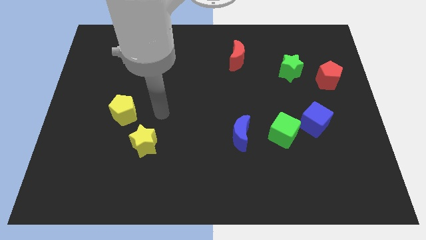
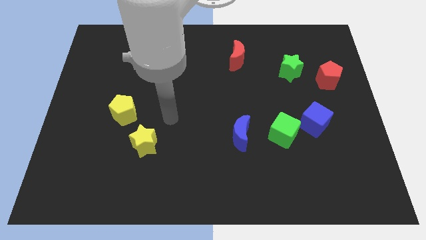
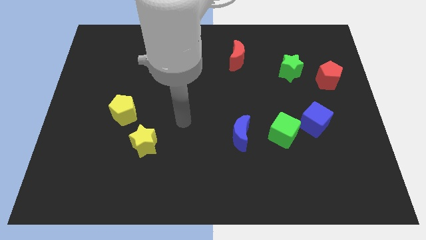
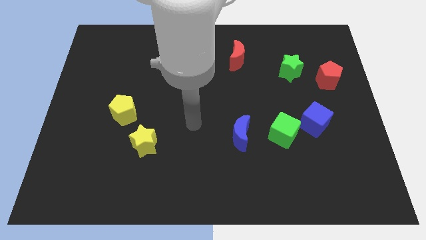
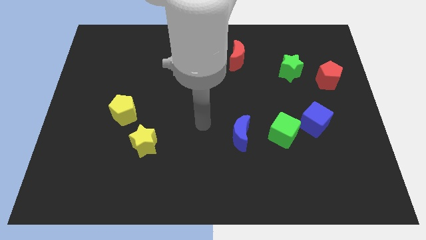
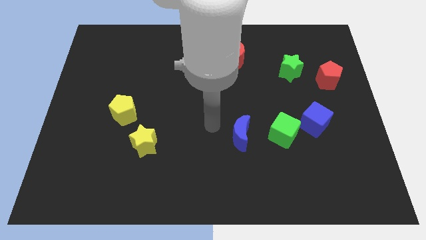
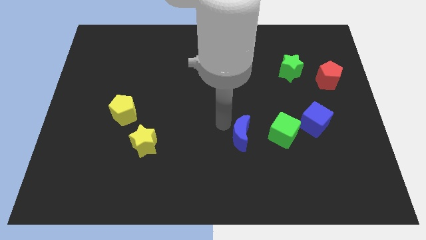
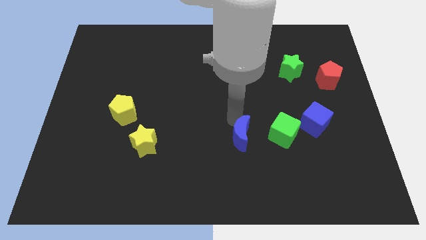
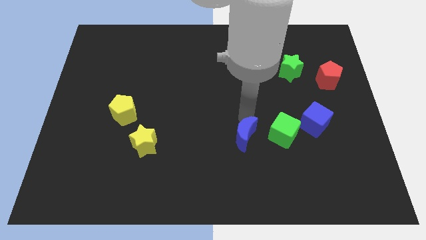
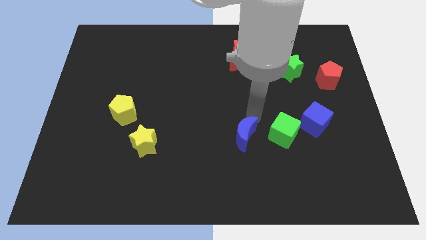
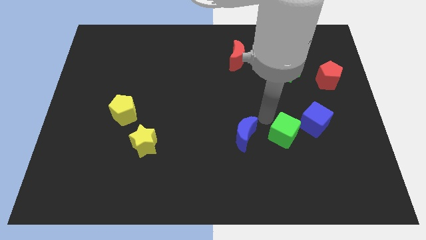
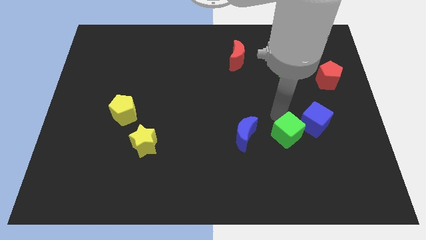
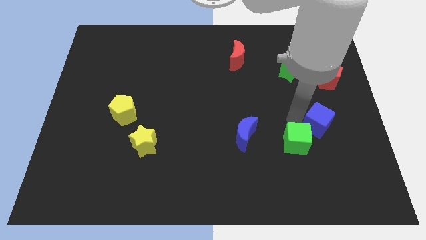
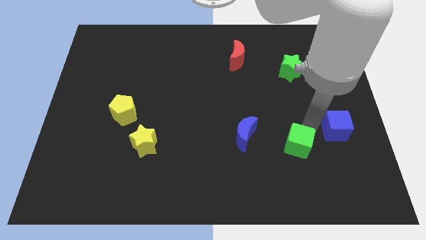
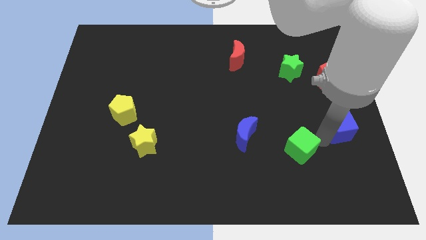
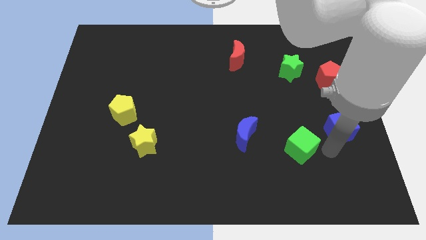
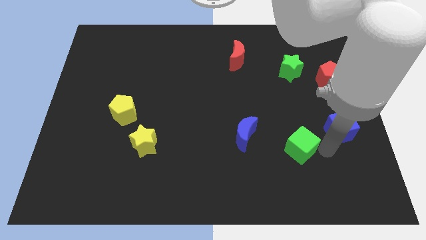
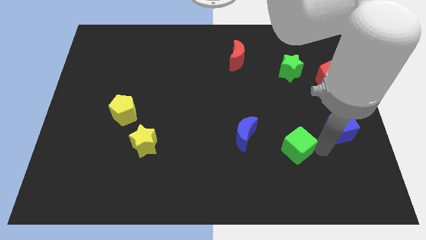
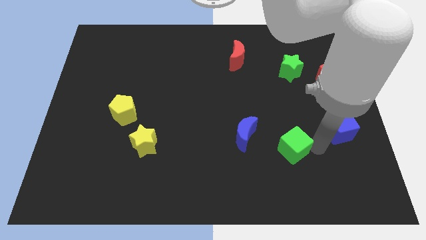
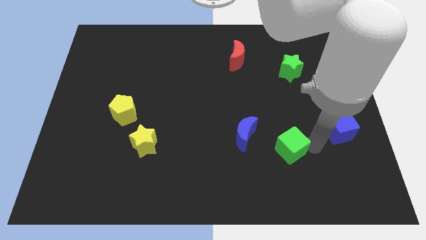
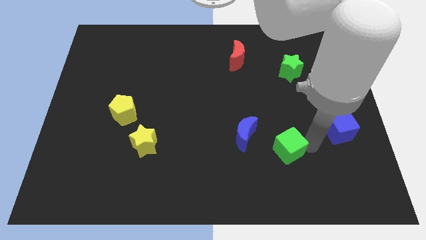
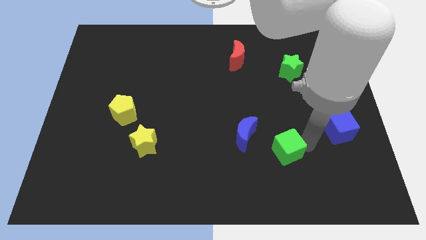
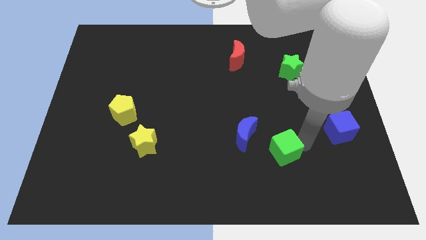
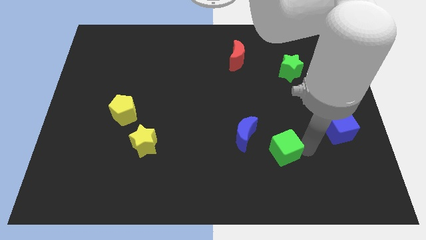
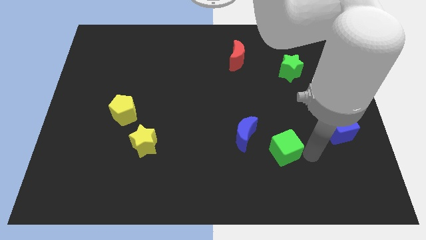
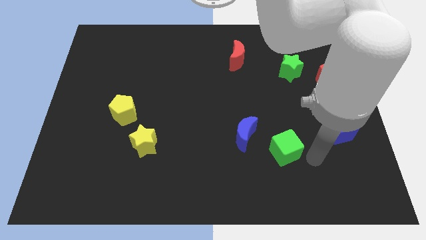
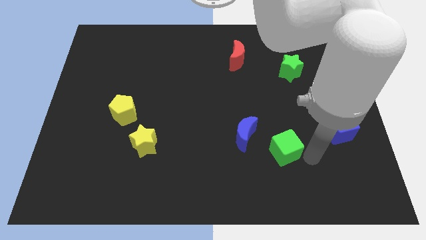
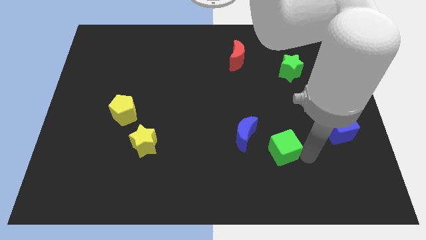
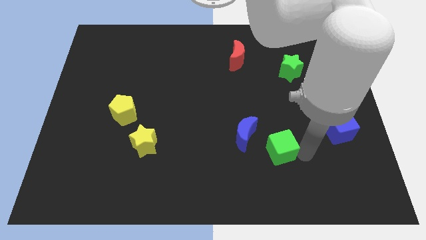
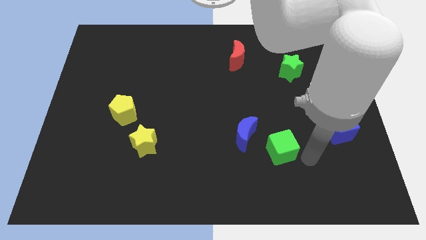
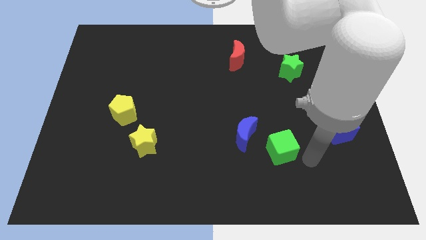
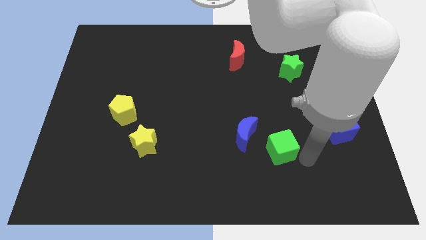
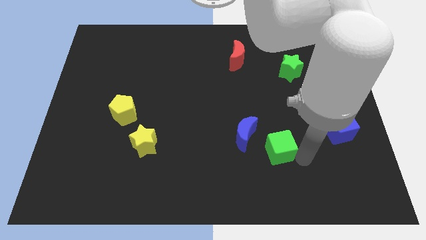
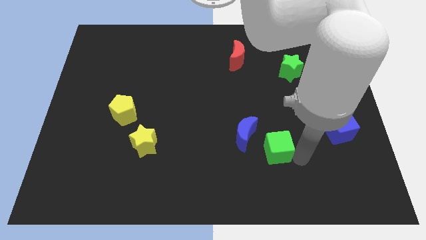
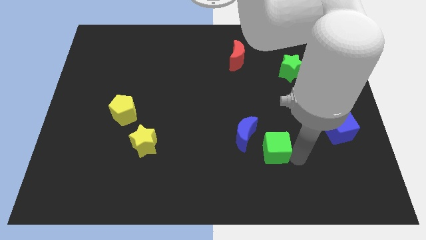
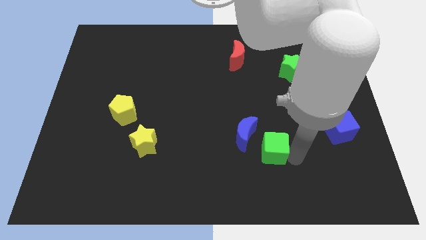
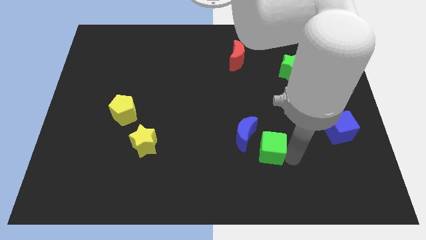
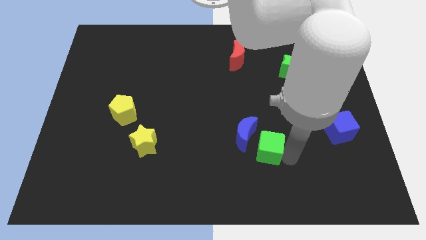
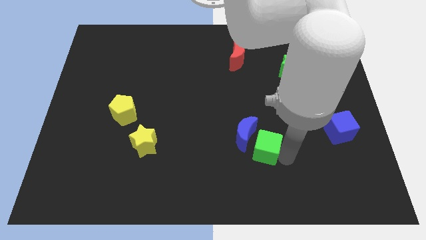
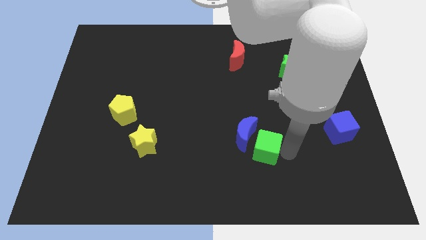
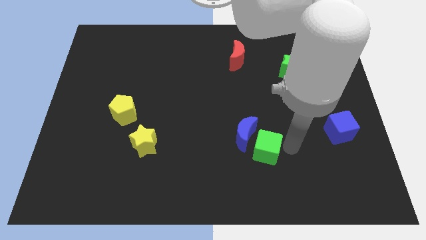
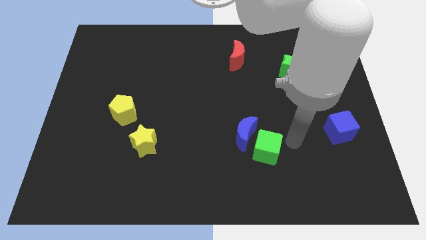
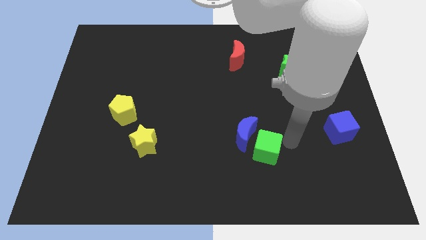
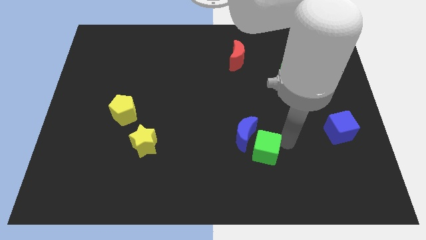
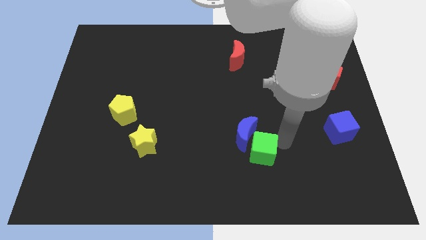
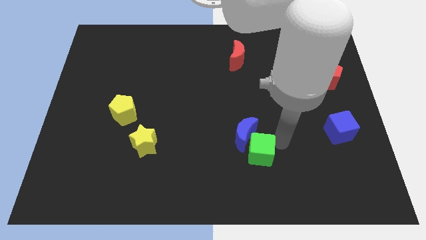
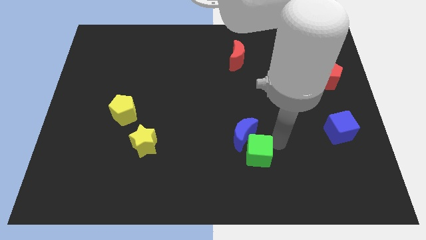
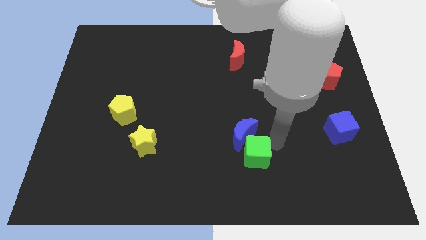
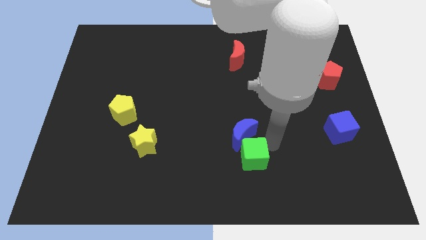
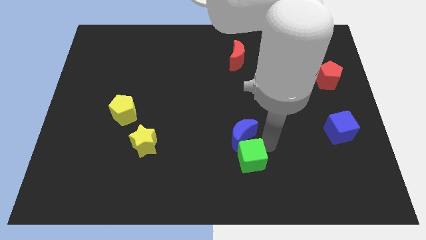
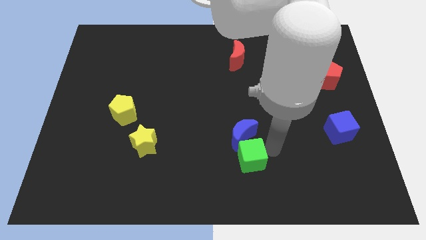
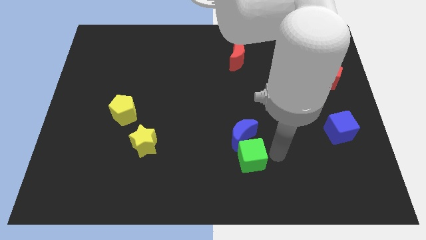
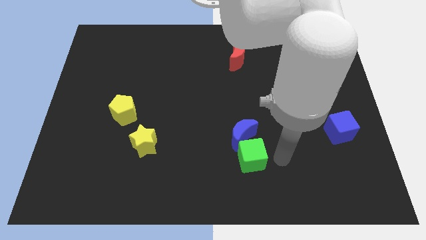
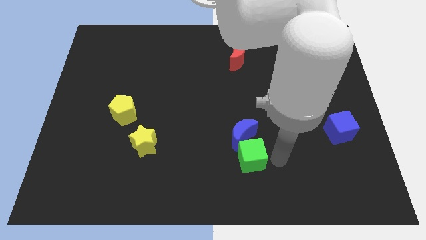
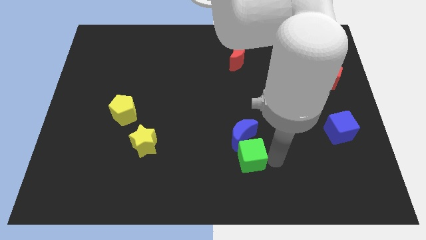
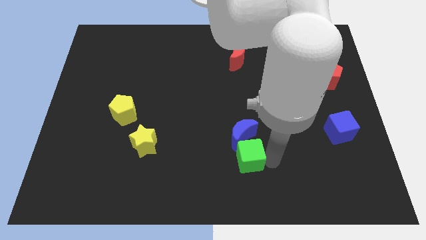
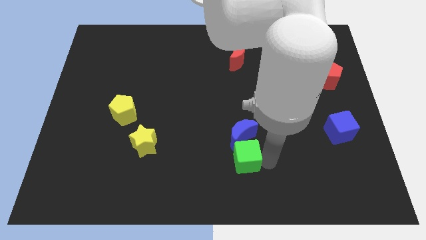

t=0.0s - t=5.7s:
put the green cube to the bottom left side of the blue moon

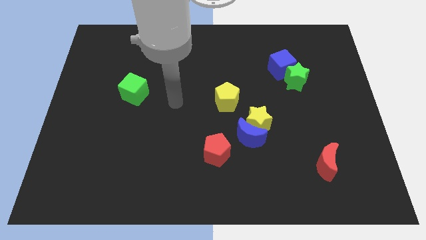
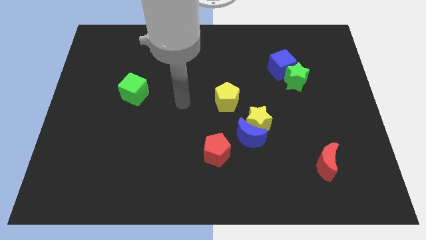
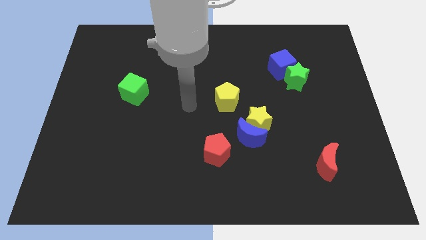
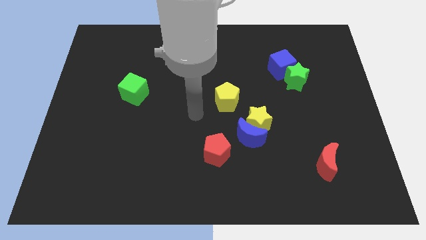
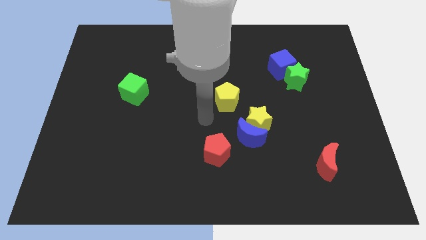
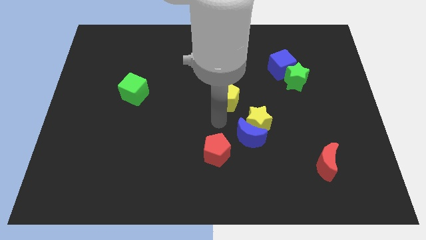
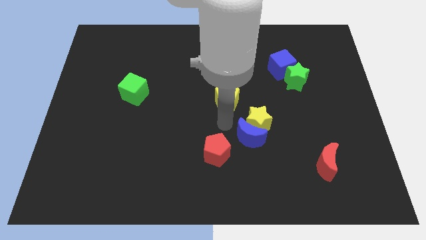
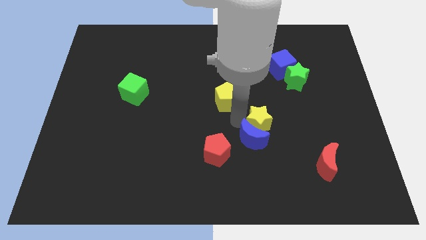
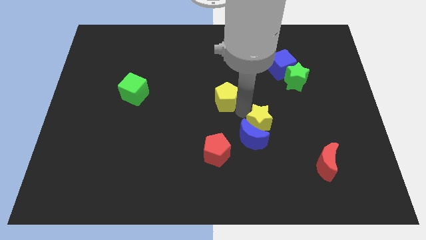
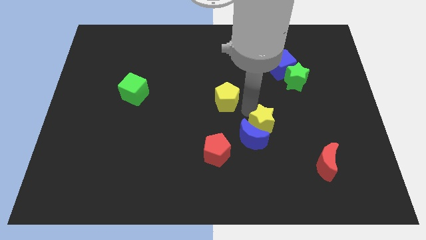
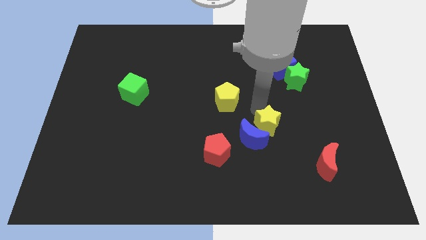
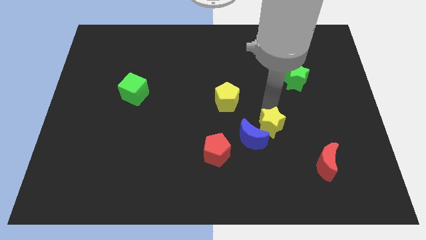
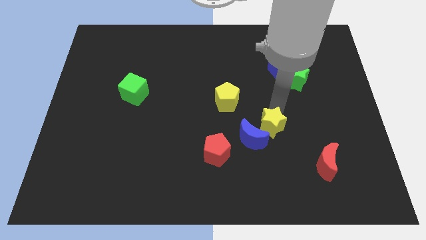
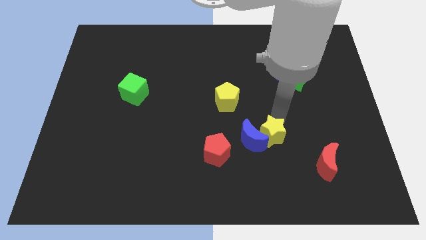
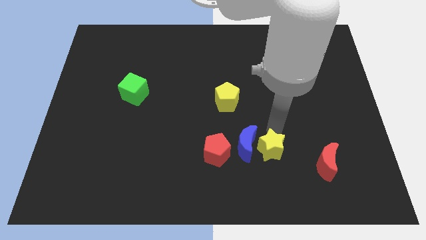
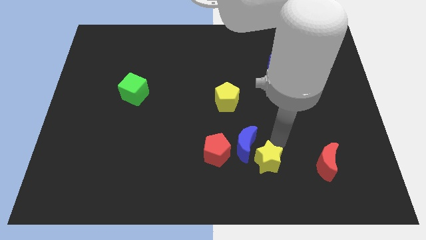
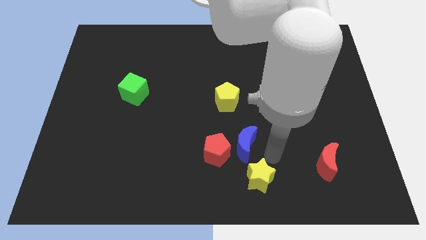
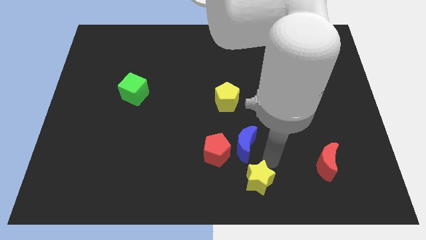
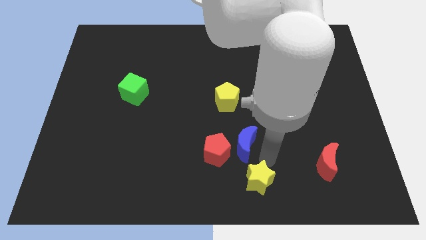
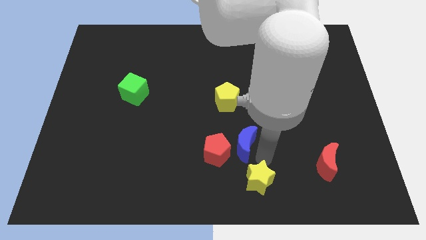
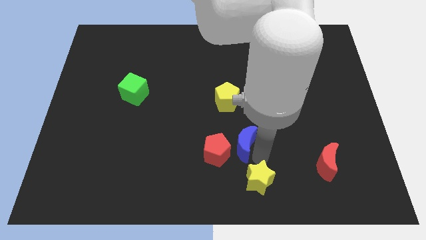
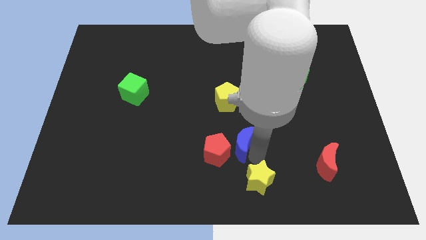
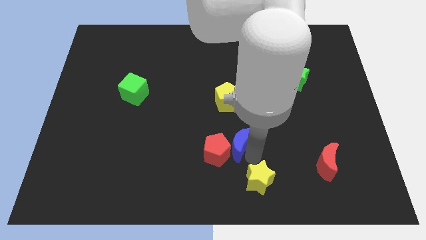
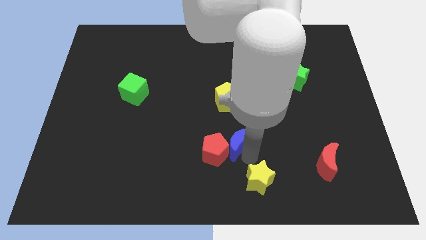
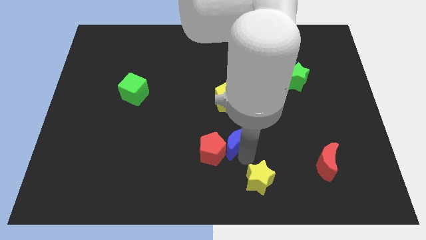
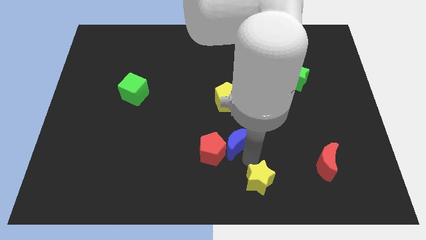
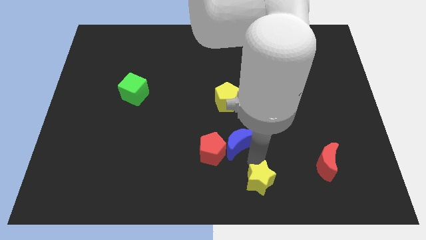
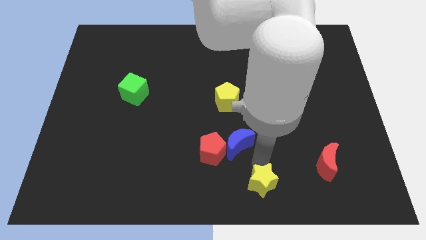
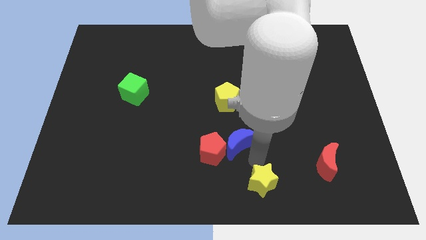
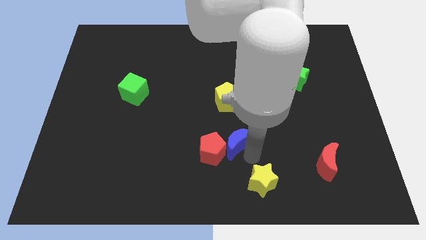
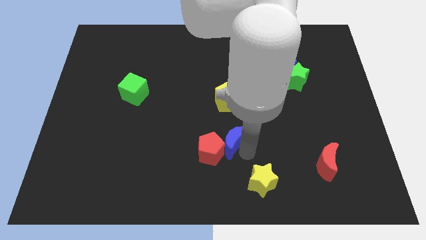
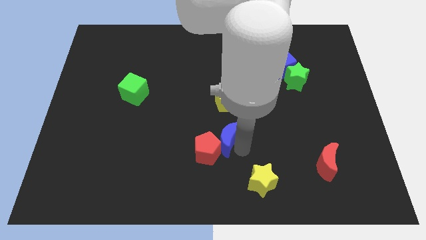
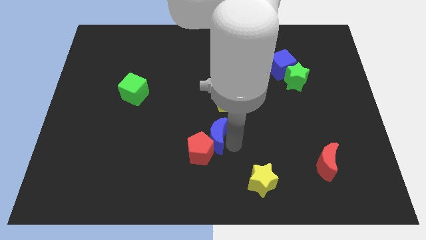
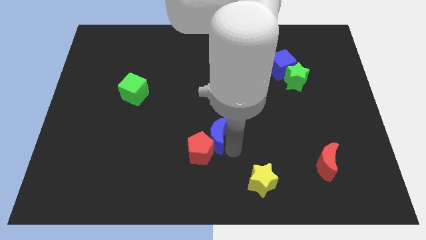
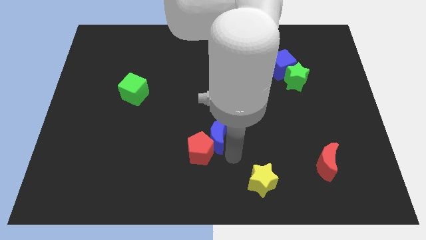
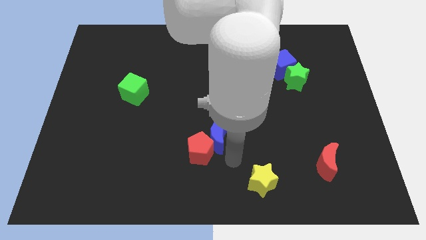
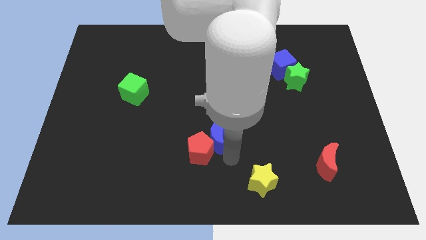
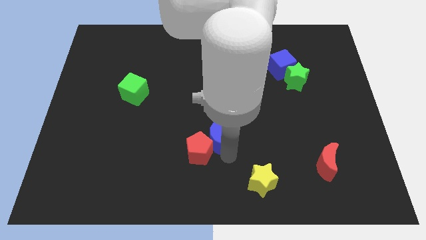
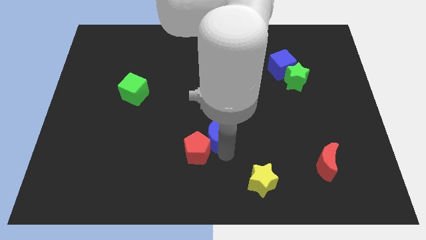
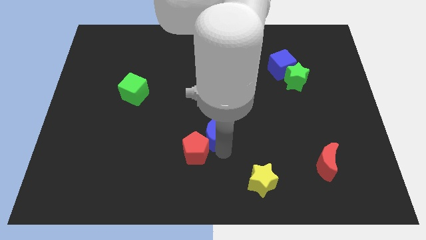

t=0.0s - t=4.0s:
slide the blue moon to the bottom left side of the yellow pentagon
